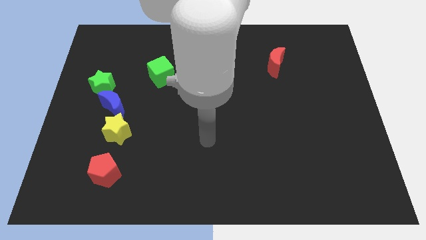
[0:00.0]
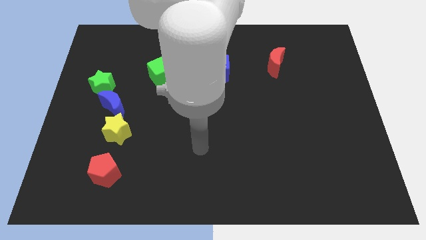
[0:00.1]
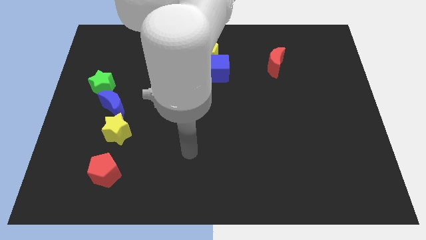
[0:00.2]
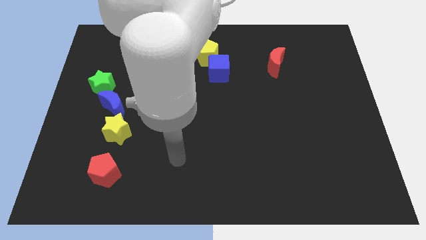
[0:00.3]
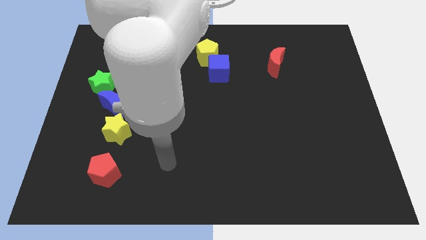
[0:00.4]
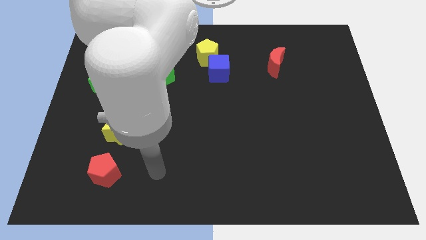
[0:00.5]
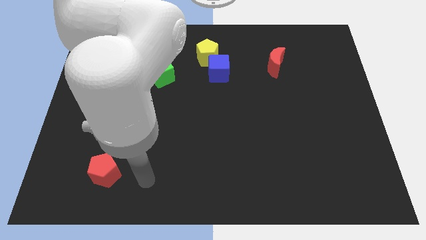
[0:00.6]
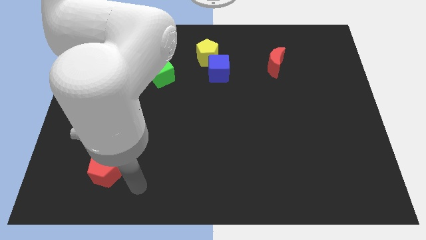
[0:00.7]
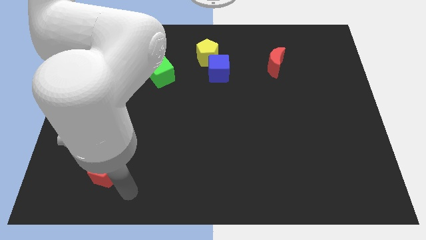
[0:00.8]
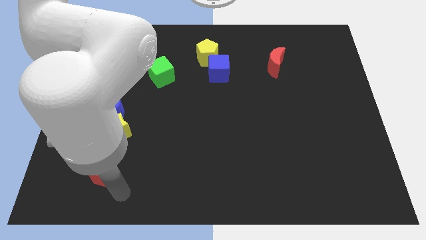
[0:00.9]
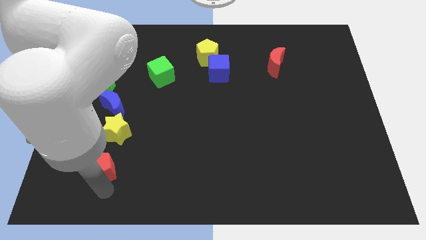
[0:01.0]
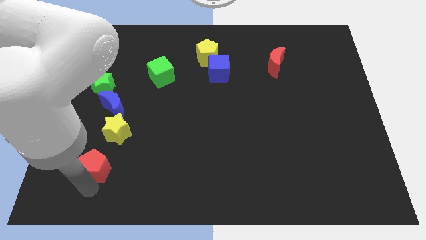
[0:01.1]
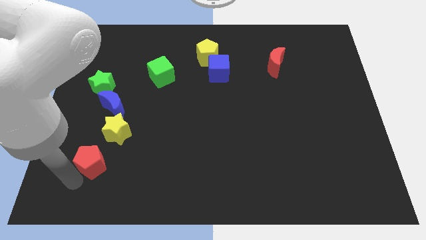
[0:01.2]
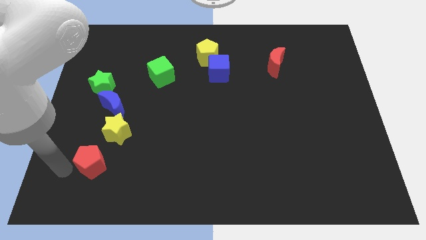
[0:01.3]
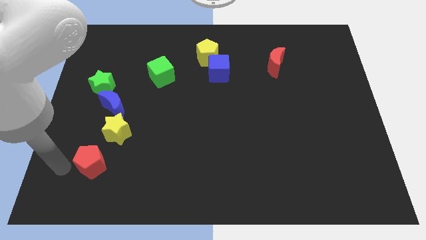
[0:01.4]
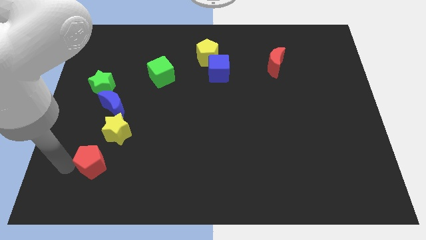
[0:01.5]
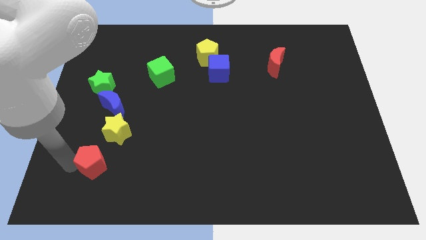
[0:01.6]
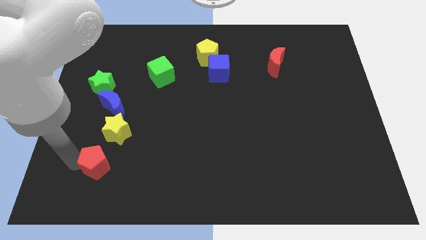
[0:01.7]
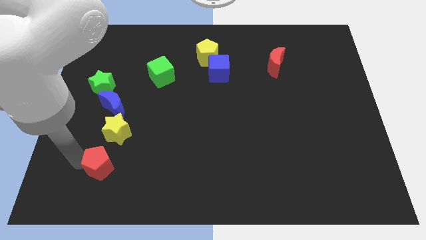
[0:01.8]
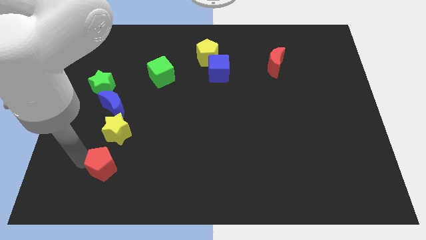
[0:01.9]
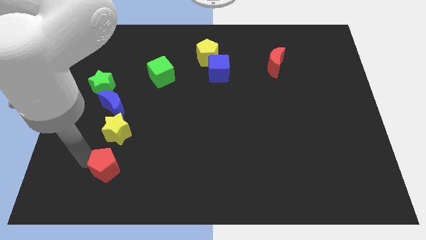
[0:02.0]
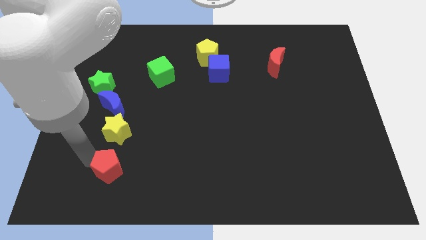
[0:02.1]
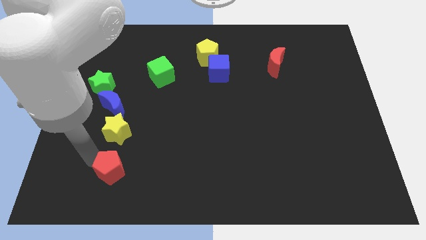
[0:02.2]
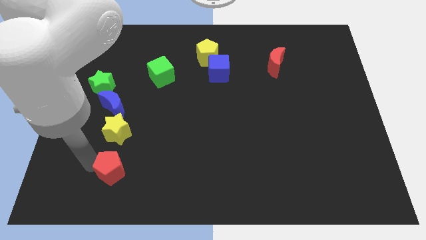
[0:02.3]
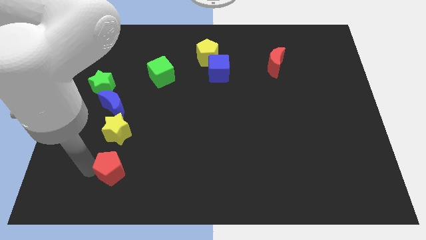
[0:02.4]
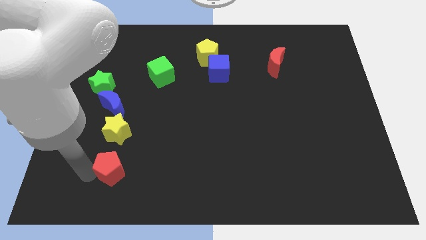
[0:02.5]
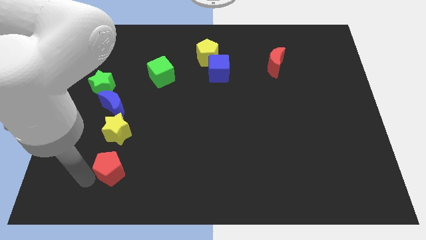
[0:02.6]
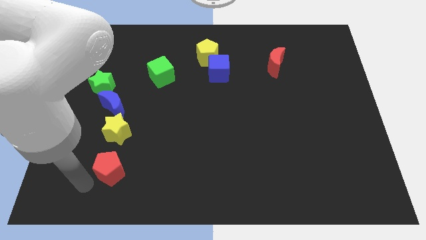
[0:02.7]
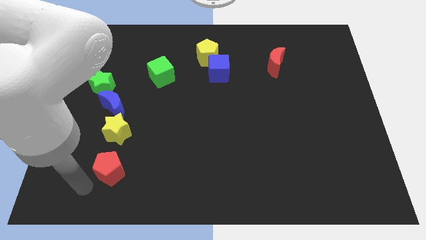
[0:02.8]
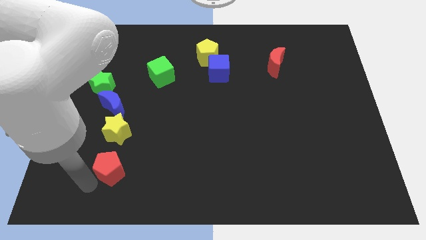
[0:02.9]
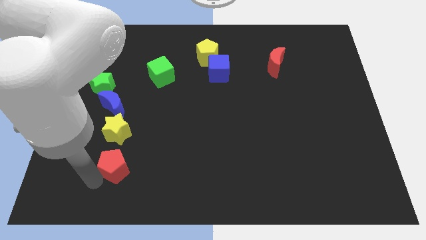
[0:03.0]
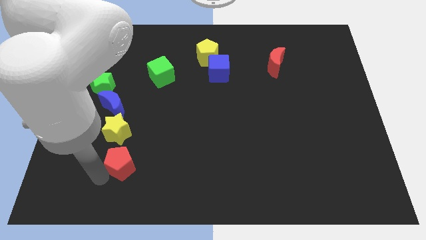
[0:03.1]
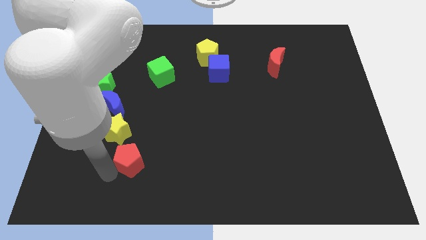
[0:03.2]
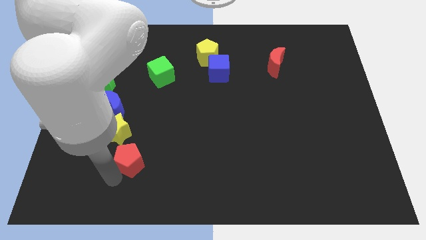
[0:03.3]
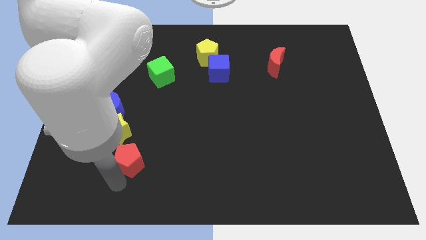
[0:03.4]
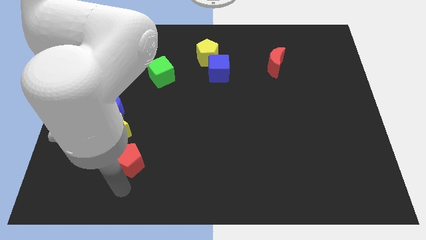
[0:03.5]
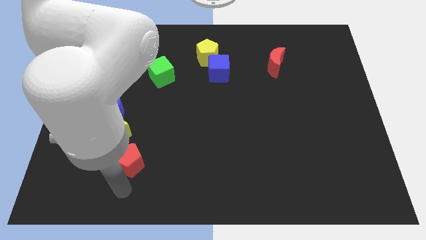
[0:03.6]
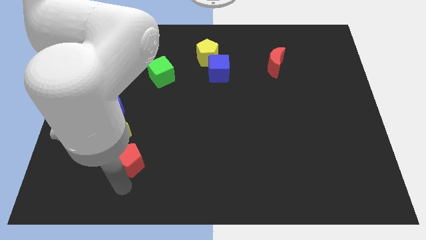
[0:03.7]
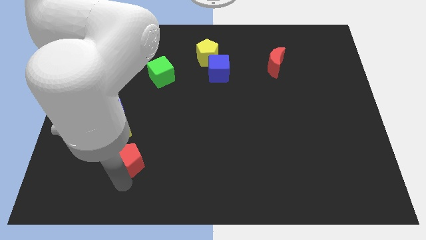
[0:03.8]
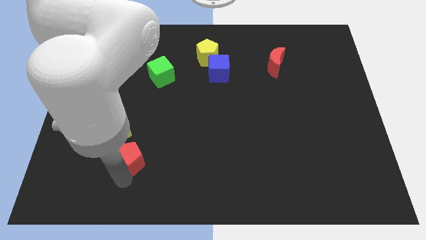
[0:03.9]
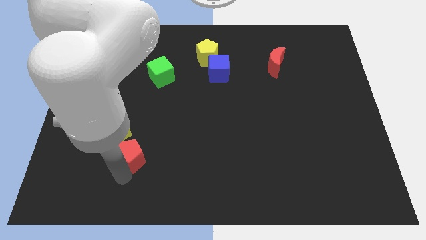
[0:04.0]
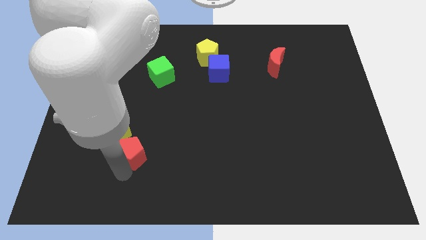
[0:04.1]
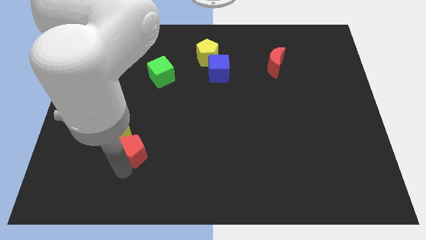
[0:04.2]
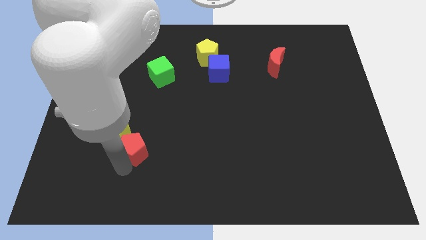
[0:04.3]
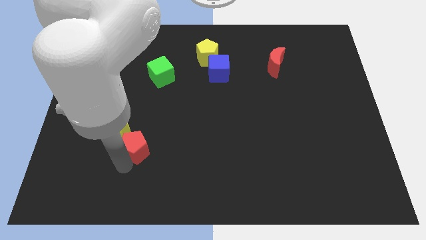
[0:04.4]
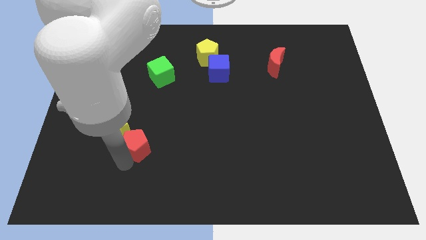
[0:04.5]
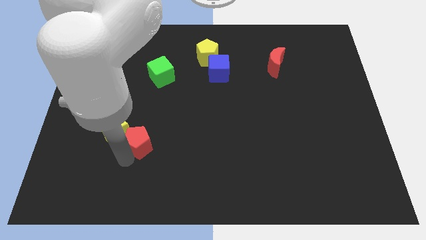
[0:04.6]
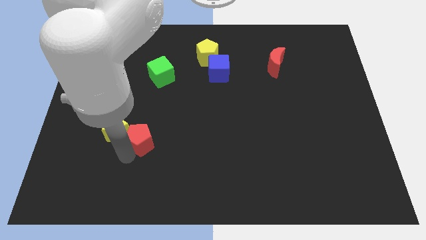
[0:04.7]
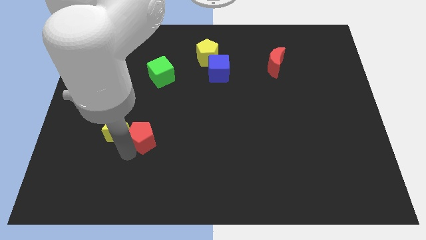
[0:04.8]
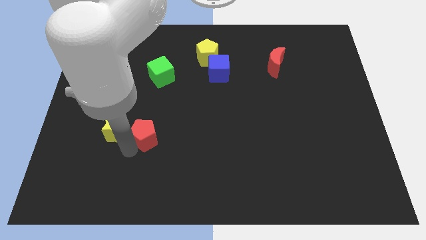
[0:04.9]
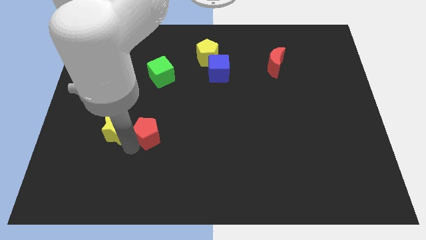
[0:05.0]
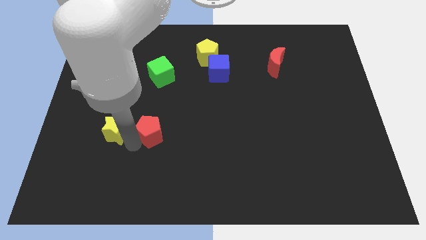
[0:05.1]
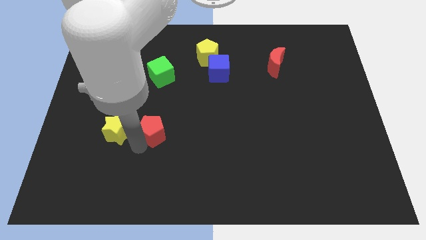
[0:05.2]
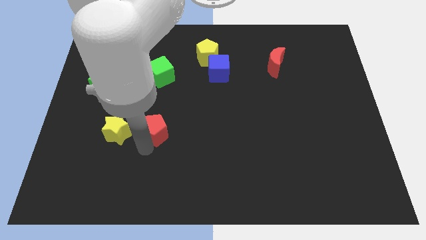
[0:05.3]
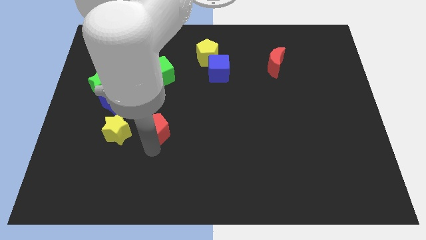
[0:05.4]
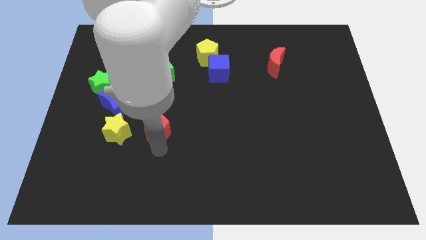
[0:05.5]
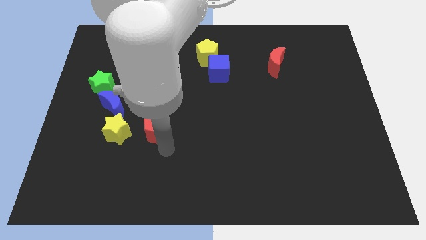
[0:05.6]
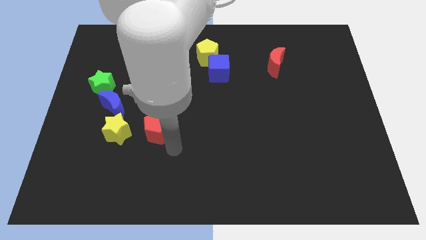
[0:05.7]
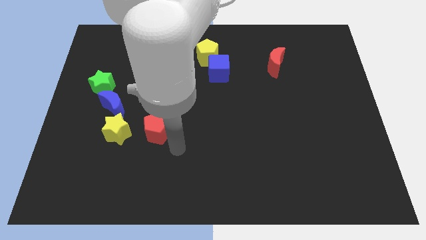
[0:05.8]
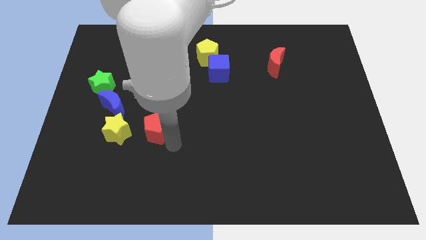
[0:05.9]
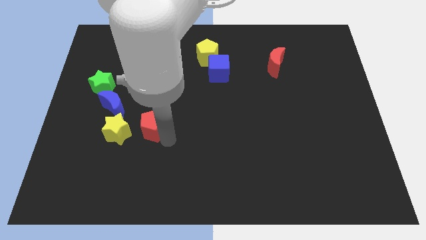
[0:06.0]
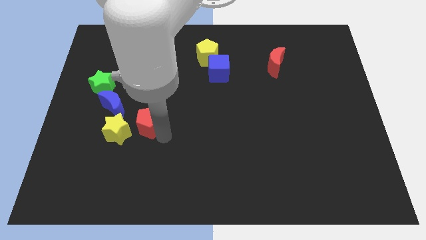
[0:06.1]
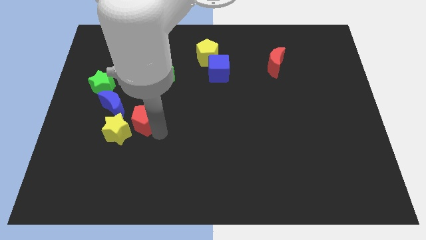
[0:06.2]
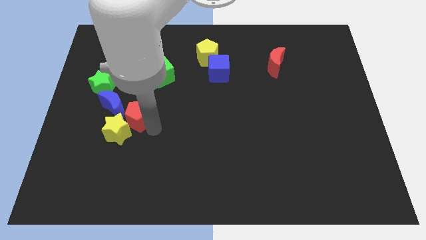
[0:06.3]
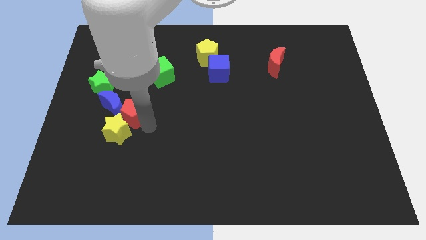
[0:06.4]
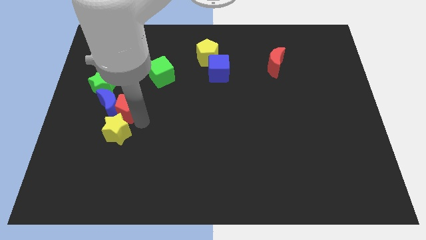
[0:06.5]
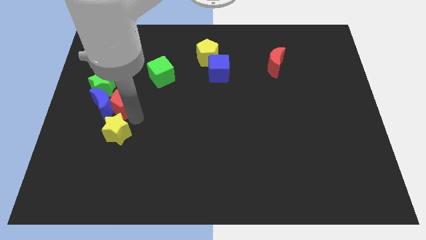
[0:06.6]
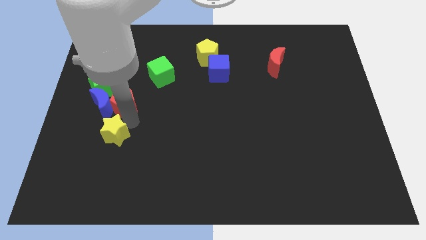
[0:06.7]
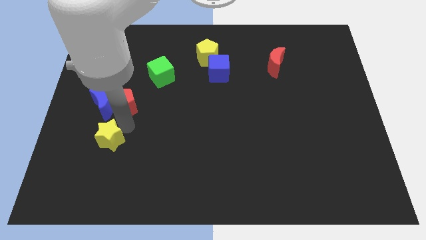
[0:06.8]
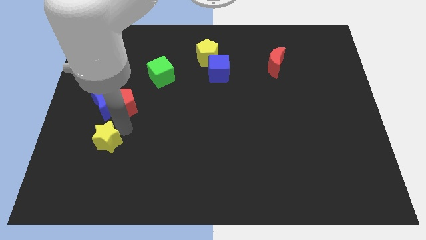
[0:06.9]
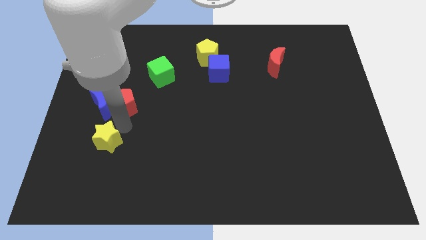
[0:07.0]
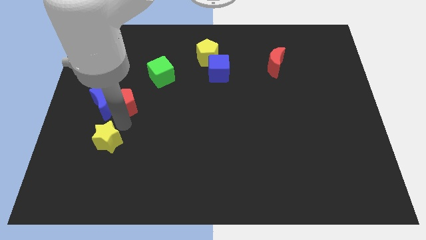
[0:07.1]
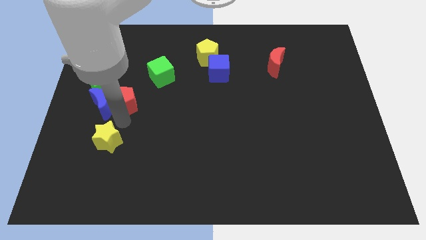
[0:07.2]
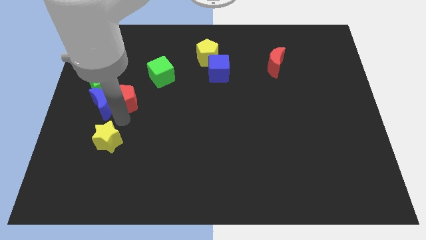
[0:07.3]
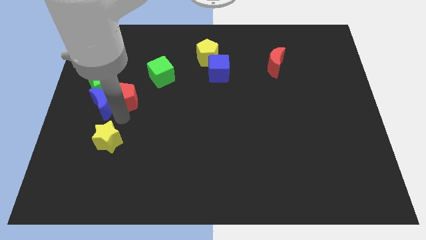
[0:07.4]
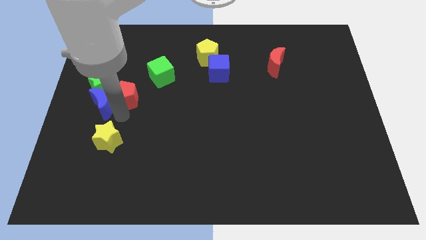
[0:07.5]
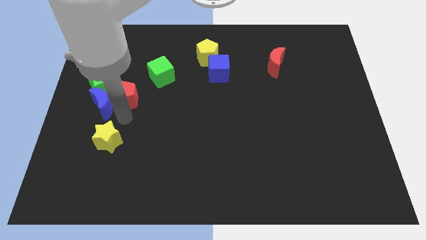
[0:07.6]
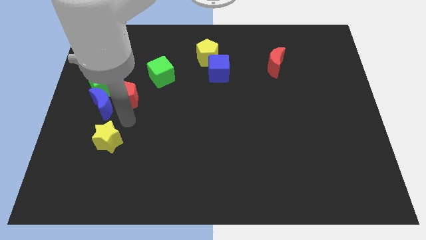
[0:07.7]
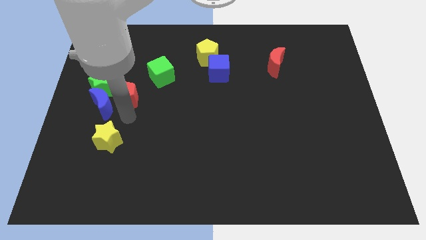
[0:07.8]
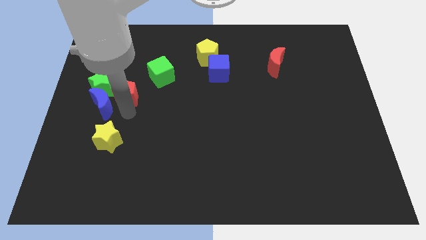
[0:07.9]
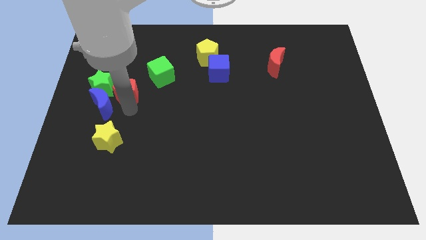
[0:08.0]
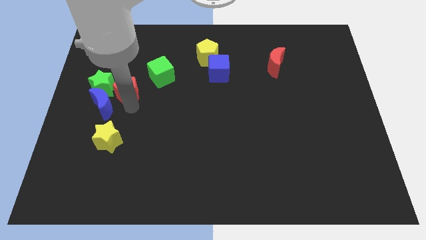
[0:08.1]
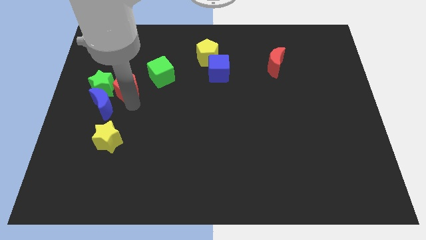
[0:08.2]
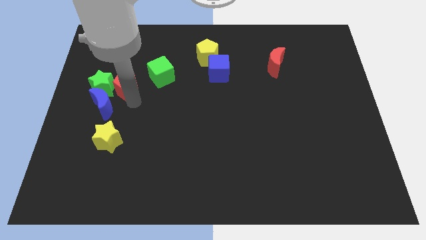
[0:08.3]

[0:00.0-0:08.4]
put the red pentagon just left of the green cube
